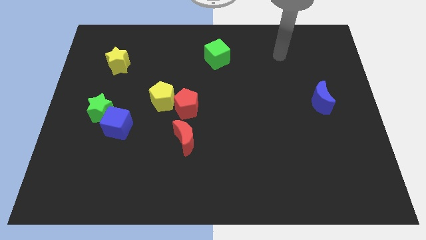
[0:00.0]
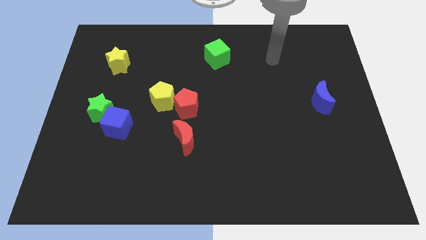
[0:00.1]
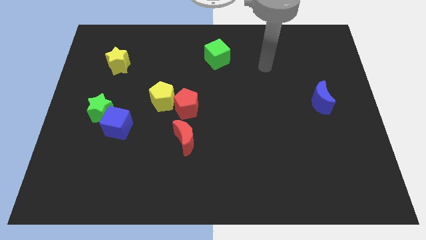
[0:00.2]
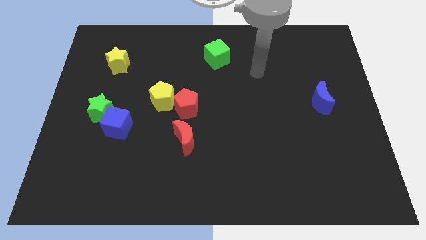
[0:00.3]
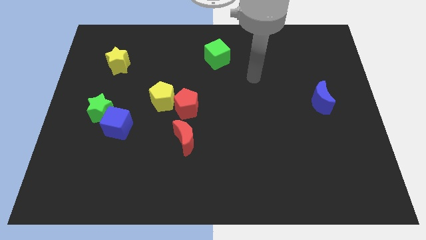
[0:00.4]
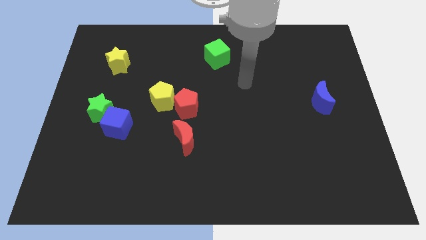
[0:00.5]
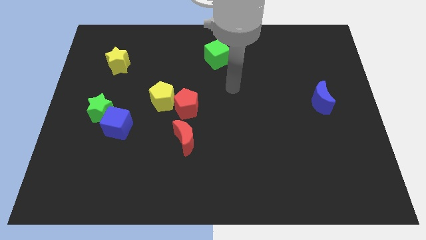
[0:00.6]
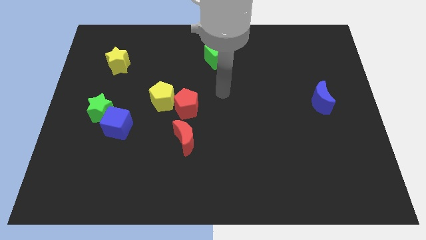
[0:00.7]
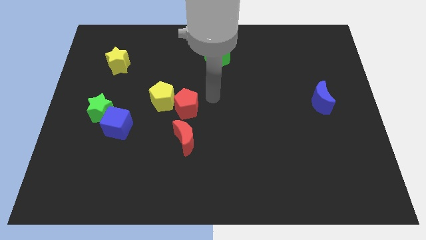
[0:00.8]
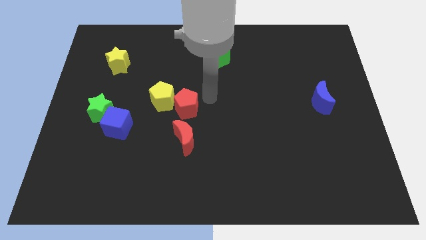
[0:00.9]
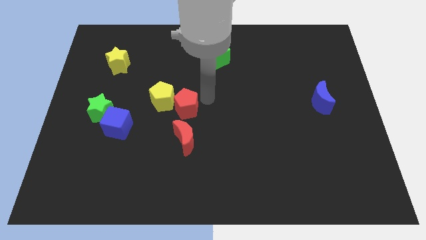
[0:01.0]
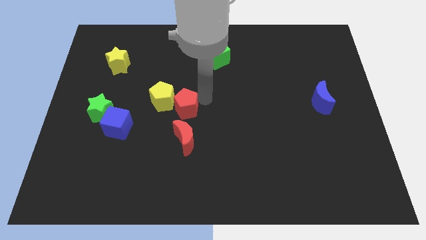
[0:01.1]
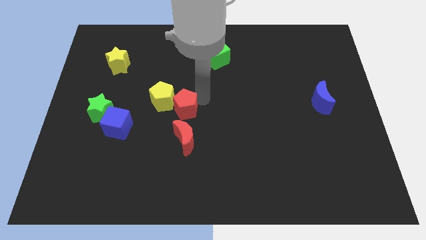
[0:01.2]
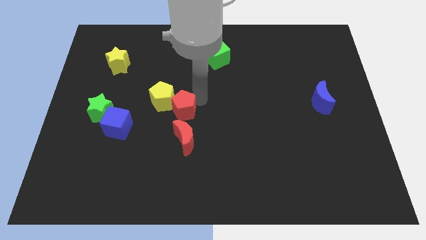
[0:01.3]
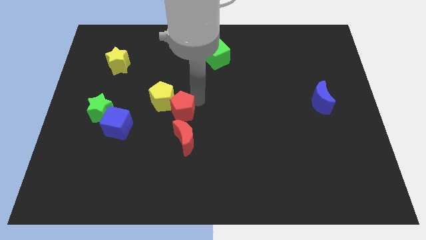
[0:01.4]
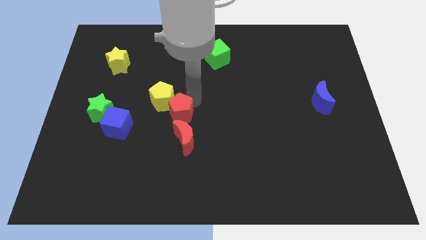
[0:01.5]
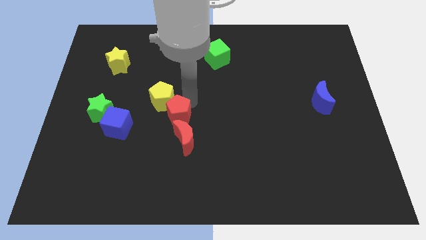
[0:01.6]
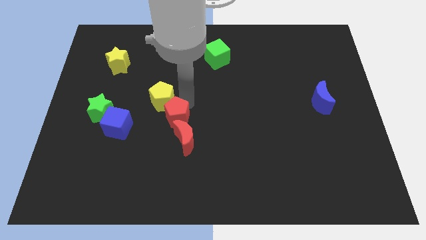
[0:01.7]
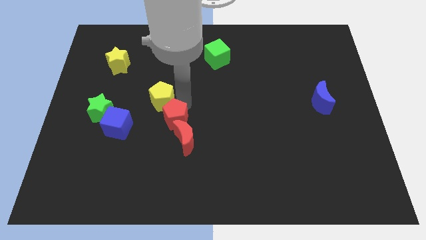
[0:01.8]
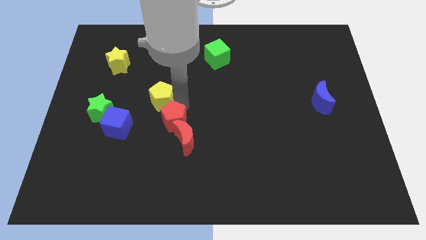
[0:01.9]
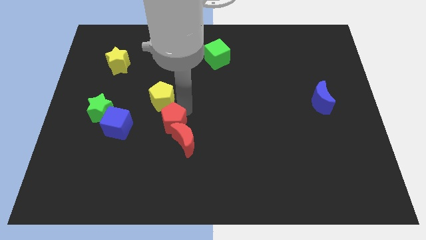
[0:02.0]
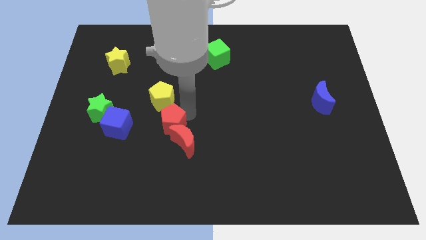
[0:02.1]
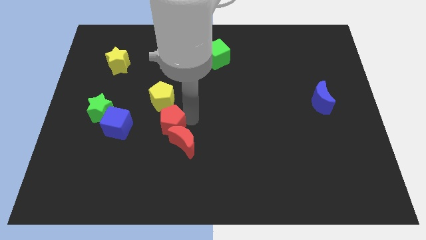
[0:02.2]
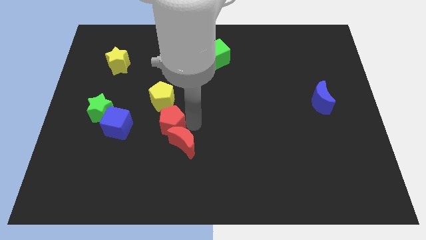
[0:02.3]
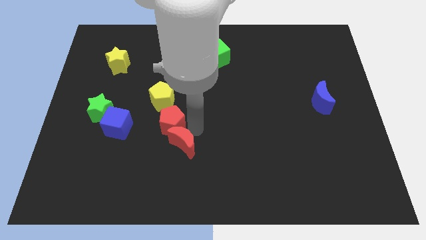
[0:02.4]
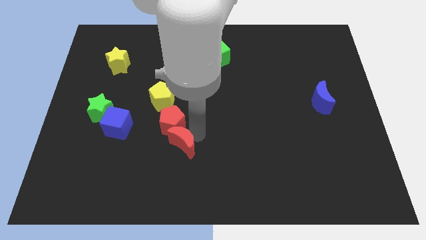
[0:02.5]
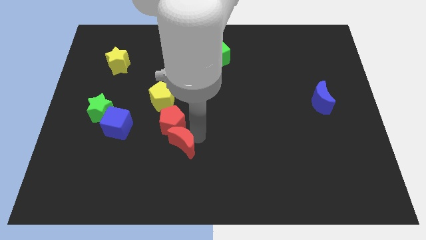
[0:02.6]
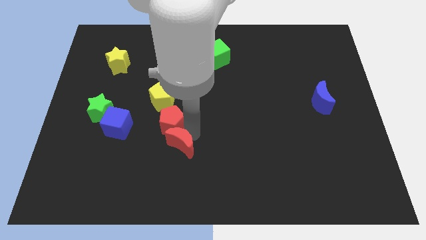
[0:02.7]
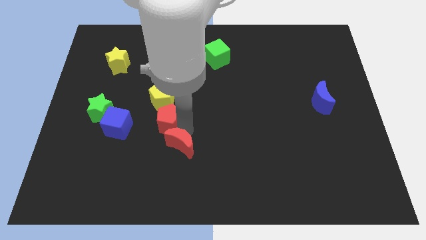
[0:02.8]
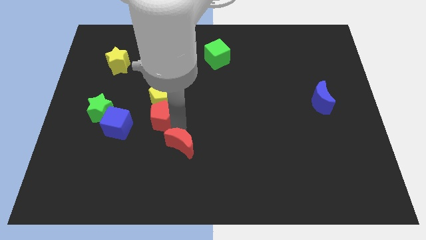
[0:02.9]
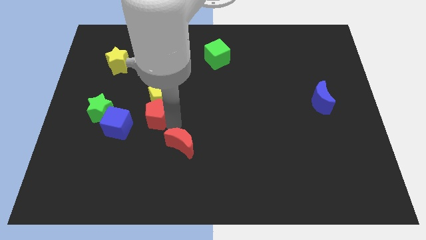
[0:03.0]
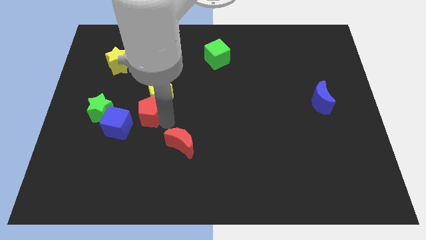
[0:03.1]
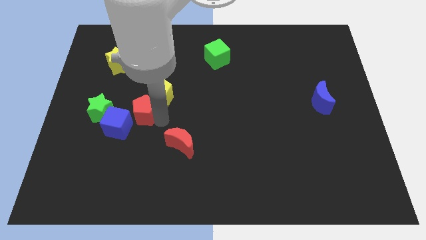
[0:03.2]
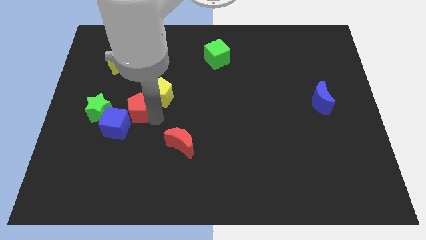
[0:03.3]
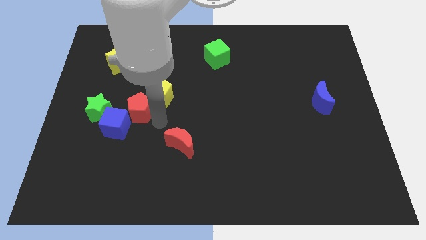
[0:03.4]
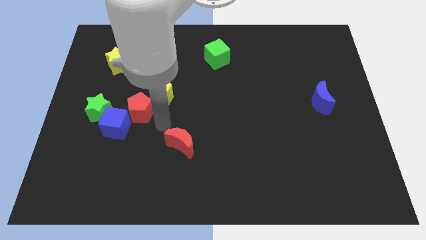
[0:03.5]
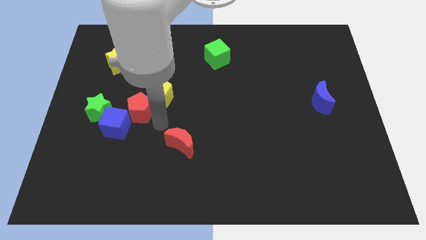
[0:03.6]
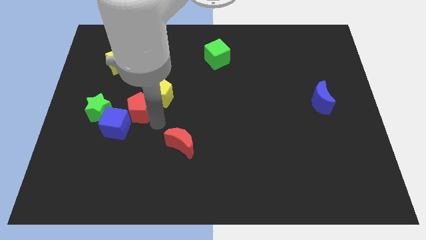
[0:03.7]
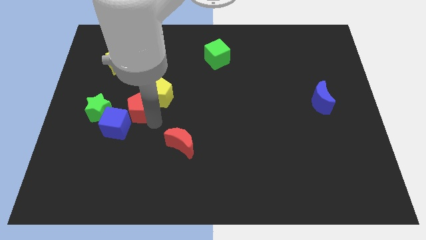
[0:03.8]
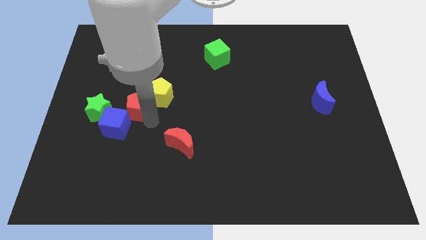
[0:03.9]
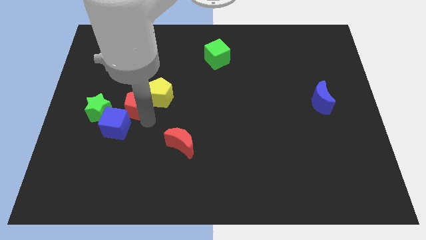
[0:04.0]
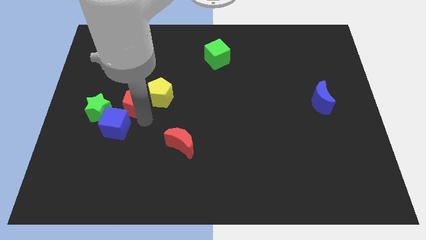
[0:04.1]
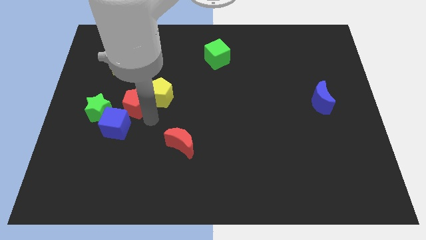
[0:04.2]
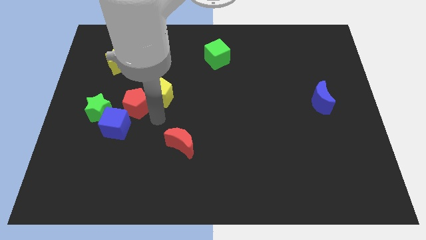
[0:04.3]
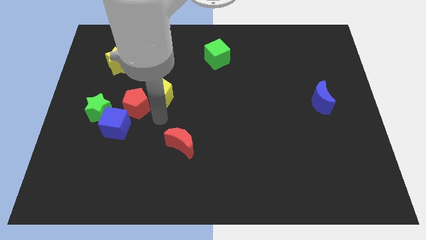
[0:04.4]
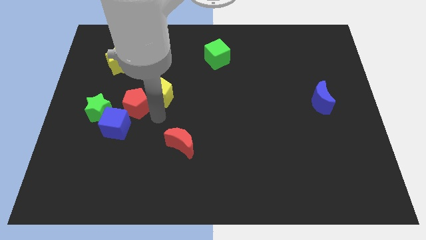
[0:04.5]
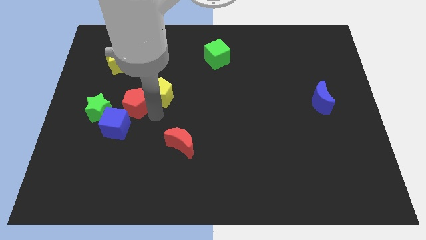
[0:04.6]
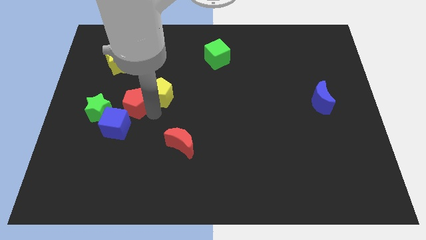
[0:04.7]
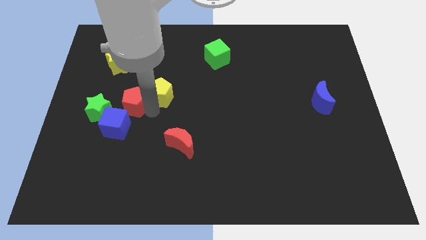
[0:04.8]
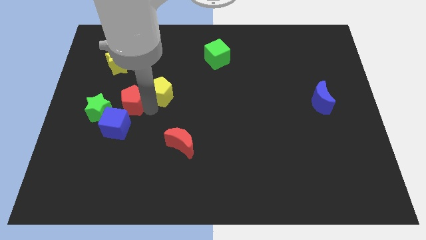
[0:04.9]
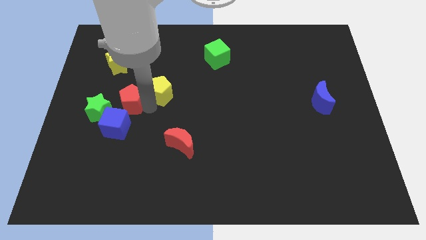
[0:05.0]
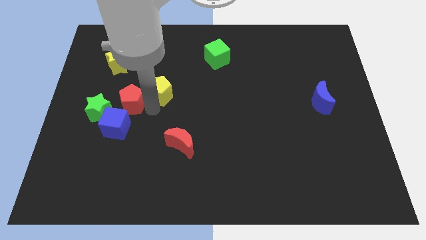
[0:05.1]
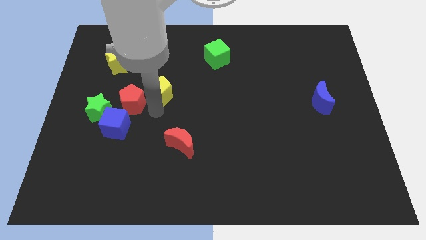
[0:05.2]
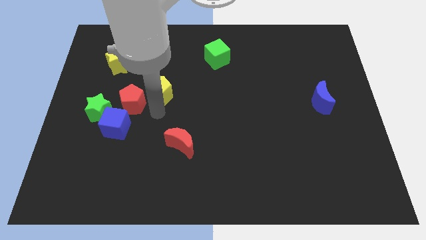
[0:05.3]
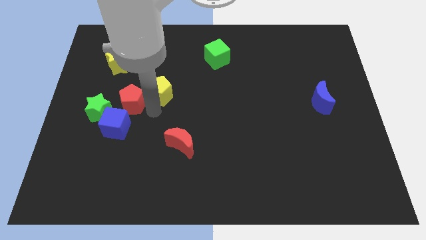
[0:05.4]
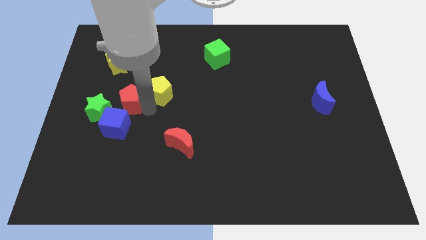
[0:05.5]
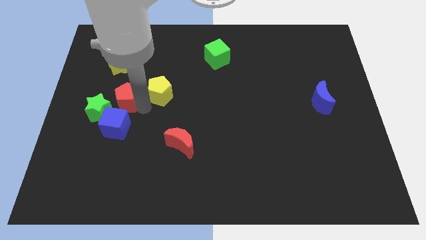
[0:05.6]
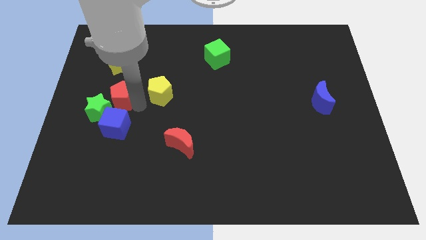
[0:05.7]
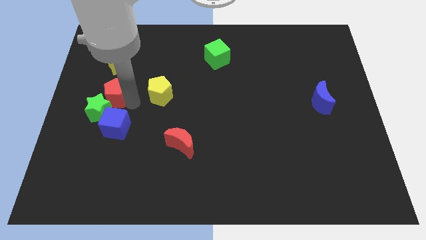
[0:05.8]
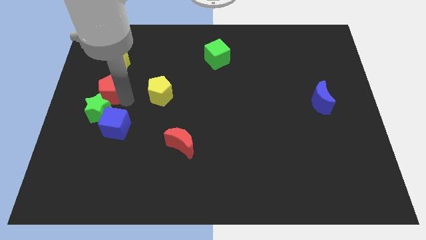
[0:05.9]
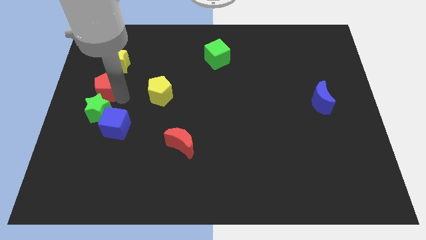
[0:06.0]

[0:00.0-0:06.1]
push the red pentagon to the left side of the board

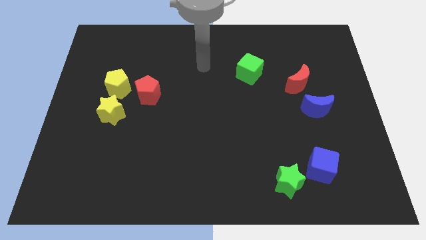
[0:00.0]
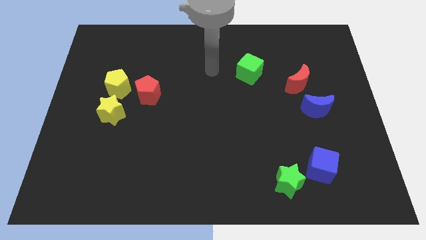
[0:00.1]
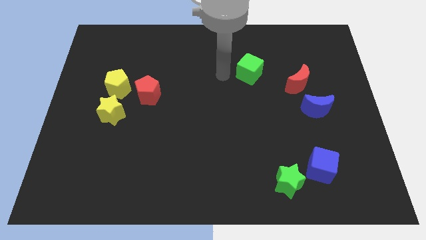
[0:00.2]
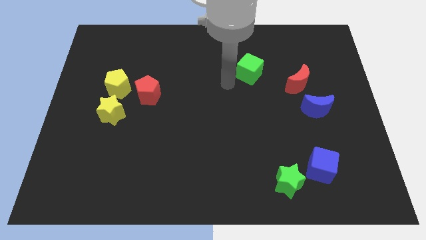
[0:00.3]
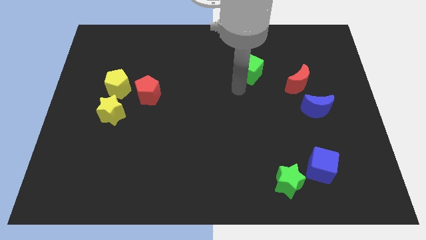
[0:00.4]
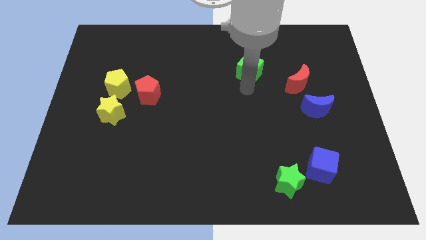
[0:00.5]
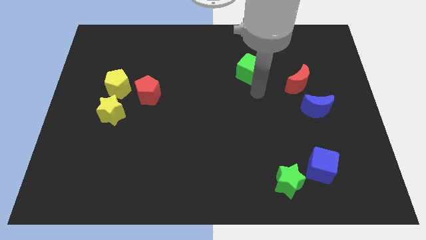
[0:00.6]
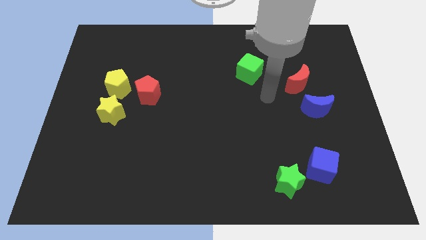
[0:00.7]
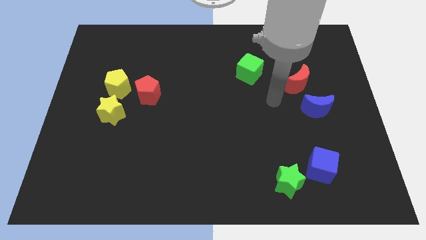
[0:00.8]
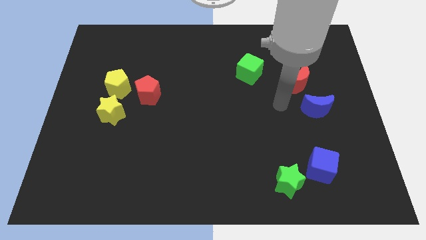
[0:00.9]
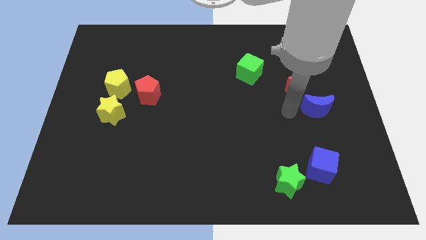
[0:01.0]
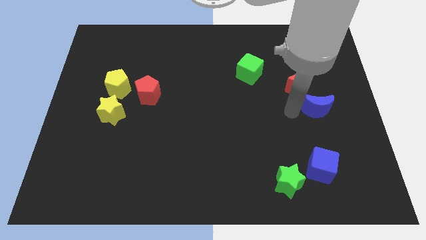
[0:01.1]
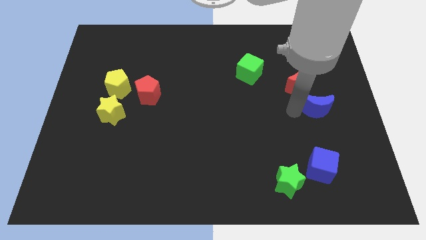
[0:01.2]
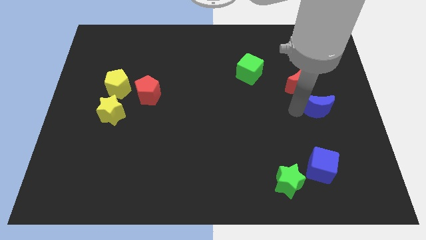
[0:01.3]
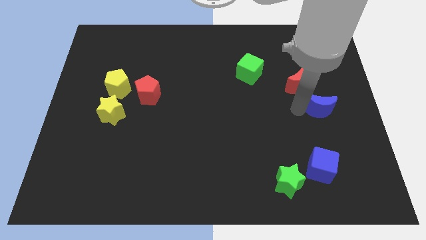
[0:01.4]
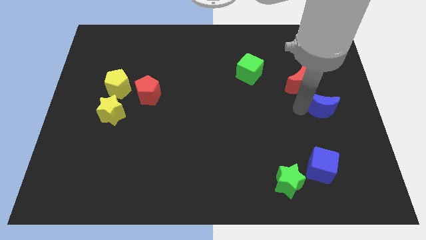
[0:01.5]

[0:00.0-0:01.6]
push the blue moon to the center right
